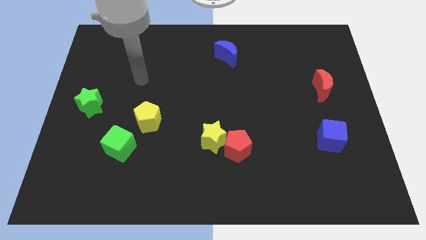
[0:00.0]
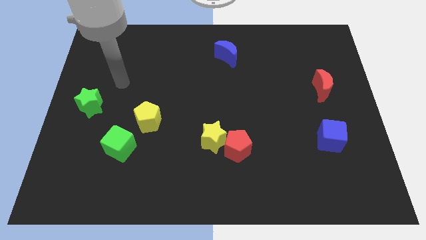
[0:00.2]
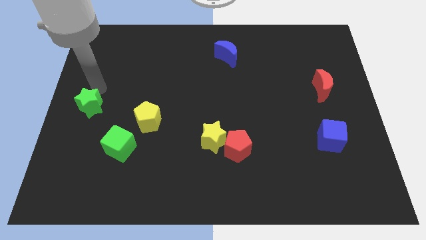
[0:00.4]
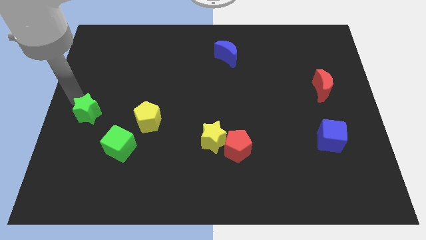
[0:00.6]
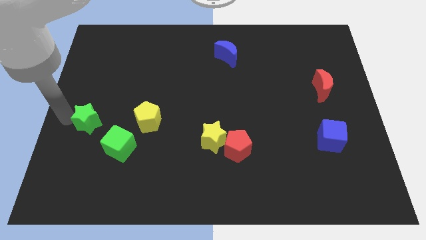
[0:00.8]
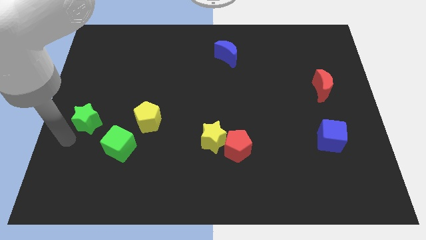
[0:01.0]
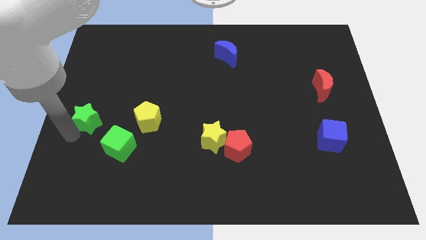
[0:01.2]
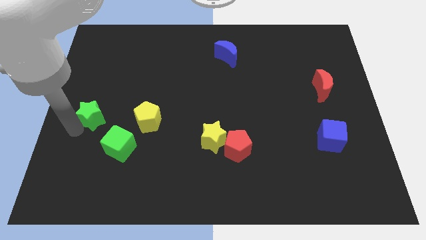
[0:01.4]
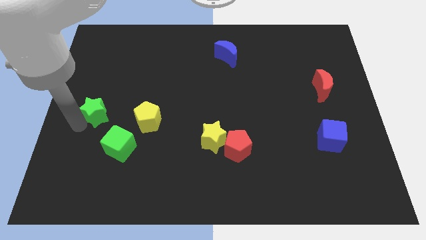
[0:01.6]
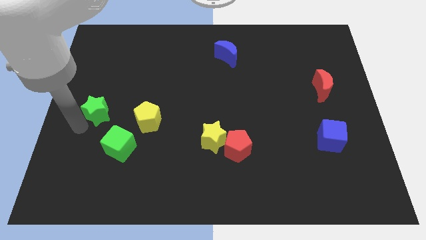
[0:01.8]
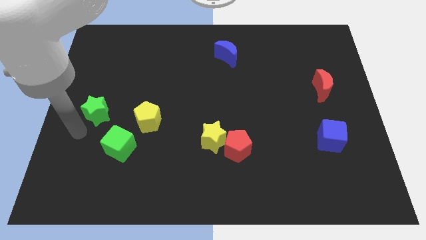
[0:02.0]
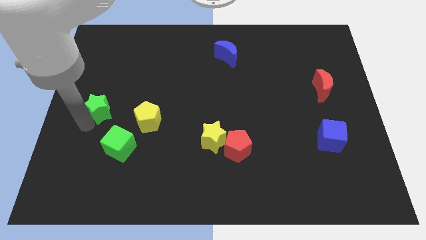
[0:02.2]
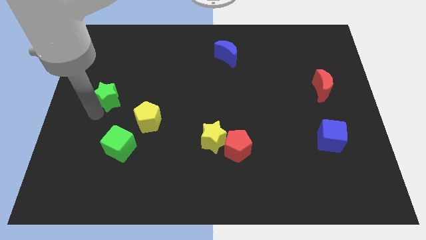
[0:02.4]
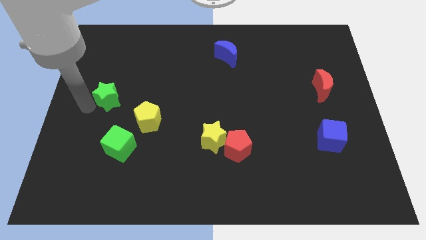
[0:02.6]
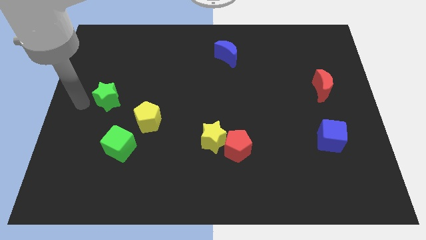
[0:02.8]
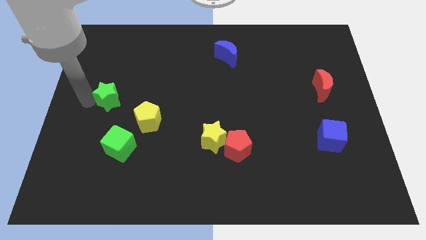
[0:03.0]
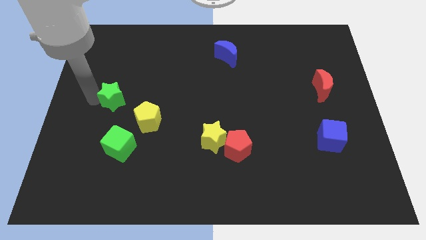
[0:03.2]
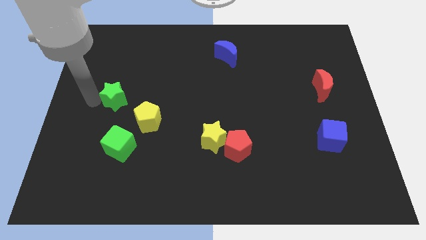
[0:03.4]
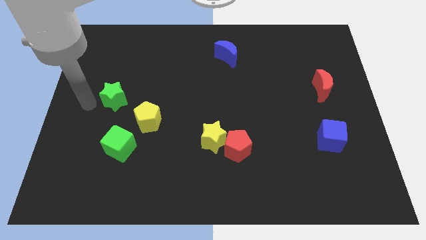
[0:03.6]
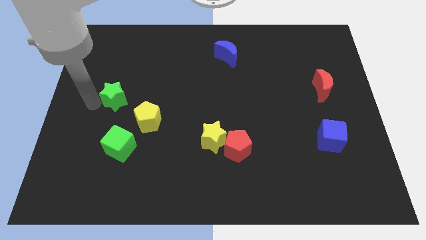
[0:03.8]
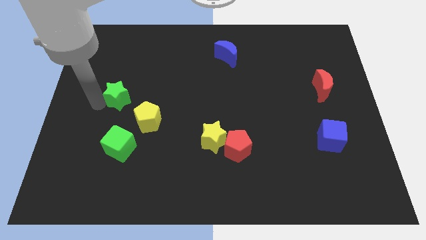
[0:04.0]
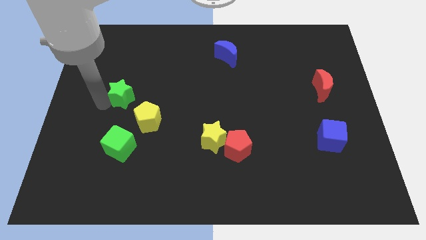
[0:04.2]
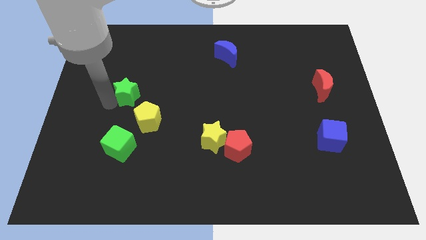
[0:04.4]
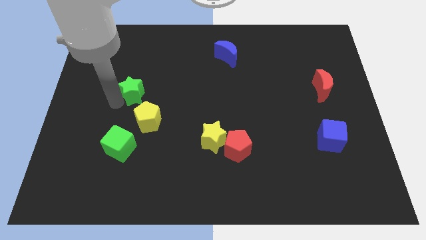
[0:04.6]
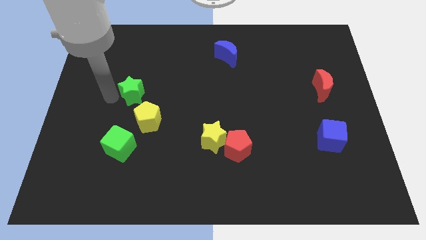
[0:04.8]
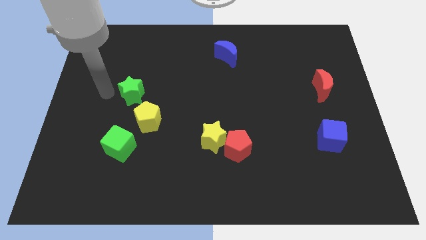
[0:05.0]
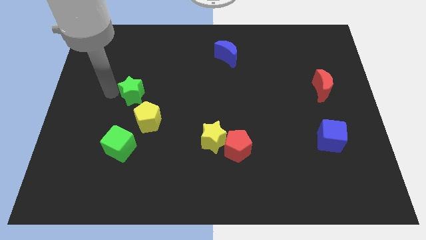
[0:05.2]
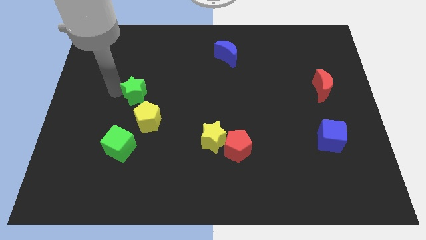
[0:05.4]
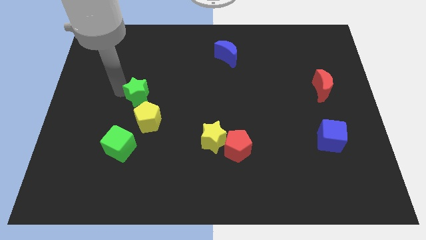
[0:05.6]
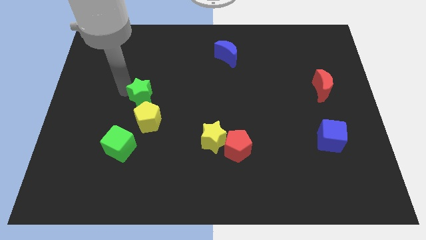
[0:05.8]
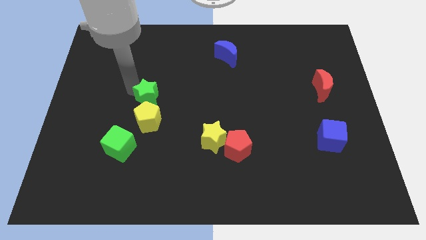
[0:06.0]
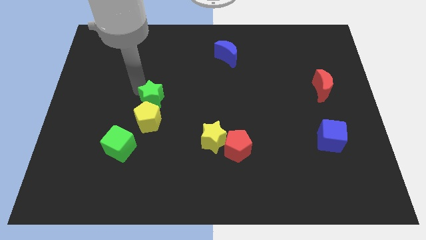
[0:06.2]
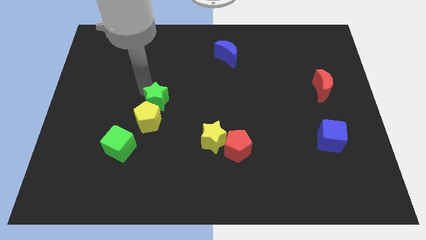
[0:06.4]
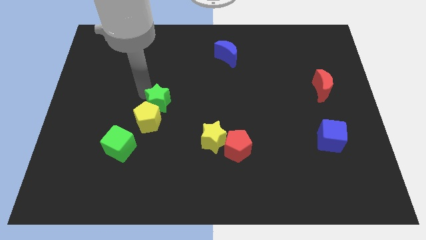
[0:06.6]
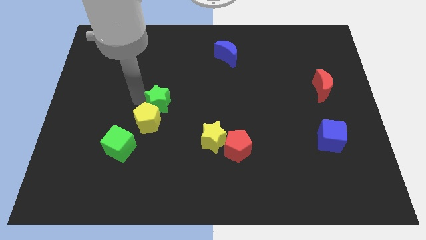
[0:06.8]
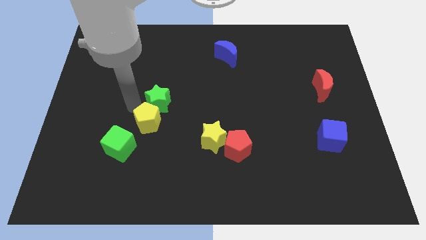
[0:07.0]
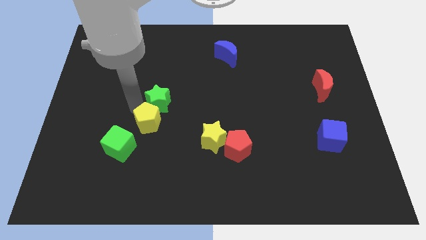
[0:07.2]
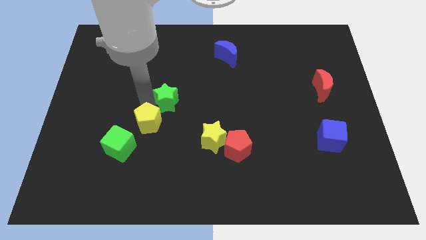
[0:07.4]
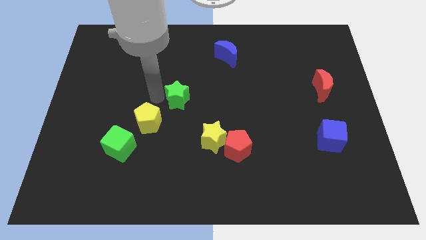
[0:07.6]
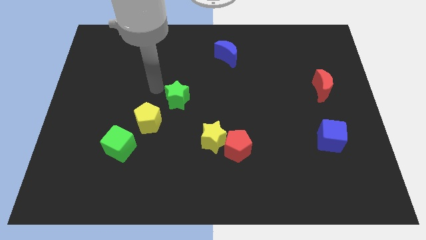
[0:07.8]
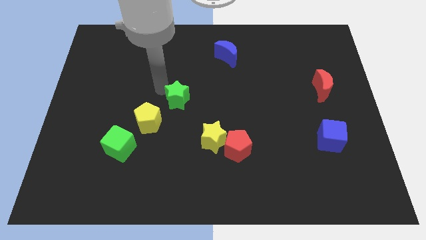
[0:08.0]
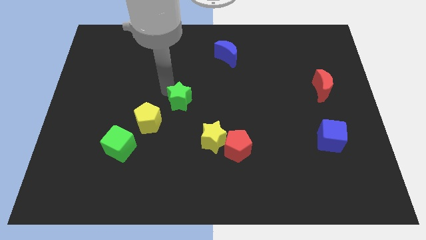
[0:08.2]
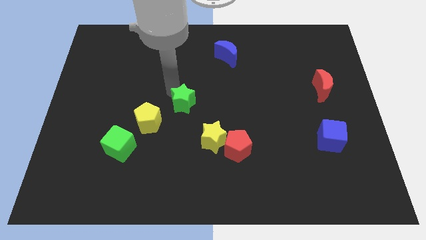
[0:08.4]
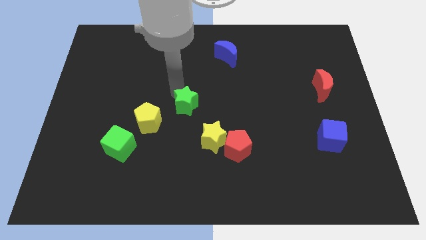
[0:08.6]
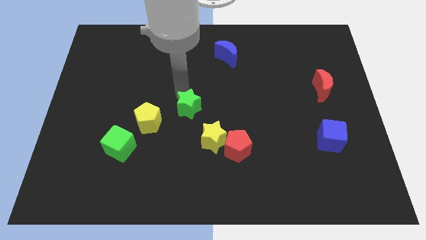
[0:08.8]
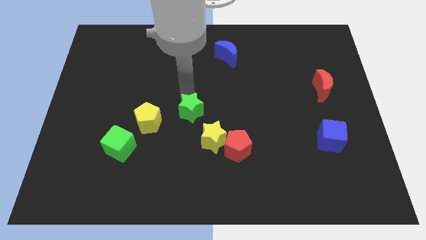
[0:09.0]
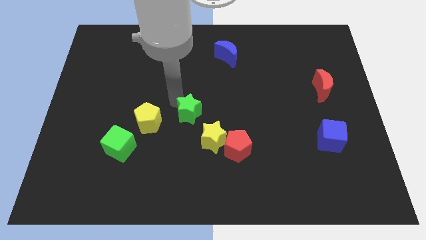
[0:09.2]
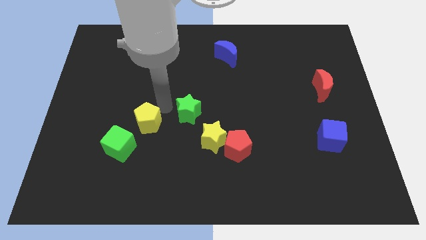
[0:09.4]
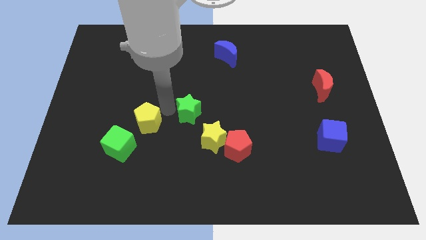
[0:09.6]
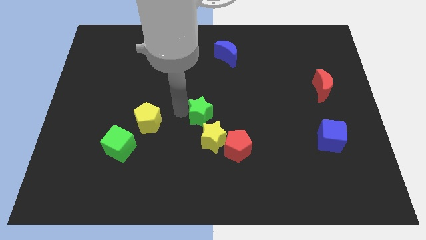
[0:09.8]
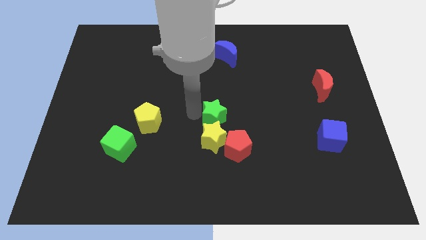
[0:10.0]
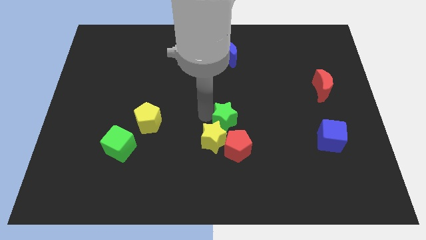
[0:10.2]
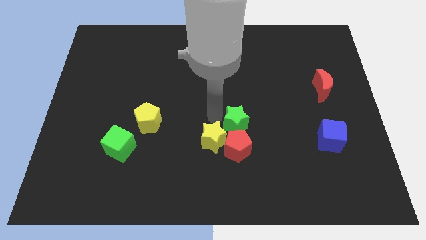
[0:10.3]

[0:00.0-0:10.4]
move the green star to the top right of the red pentagon

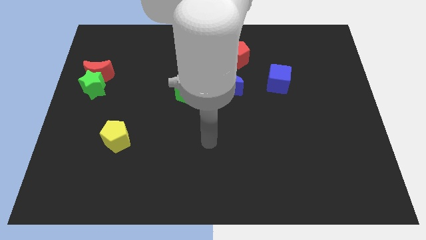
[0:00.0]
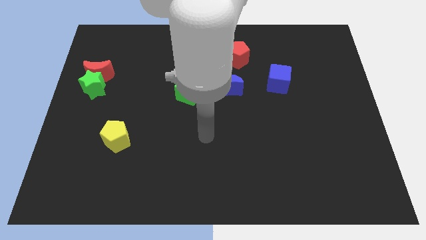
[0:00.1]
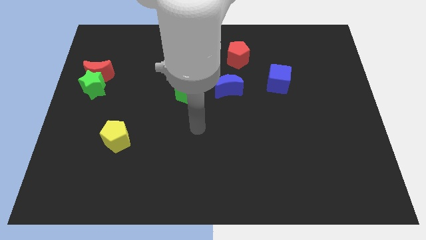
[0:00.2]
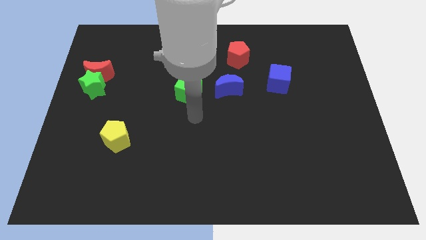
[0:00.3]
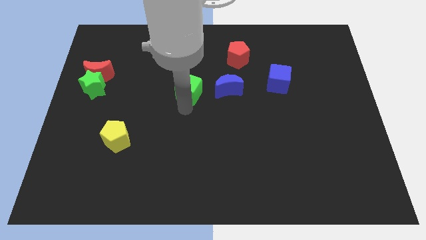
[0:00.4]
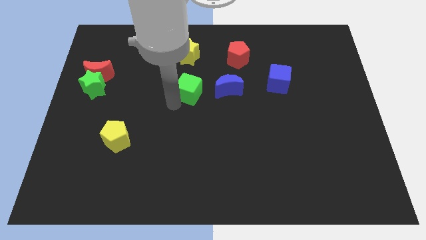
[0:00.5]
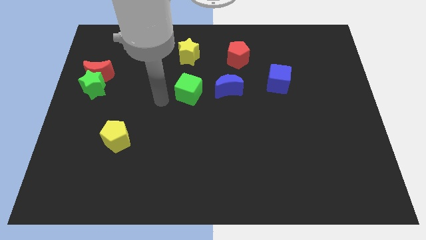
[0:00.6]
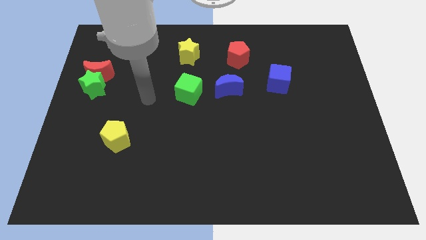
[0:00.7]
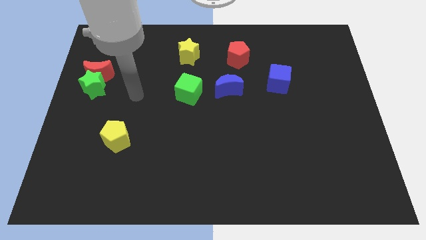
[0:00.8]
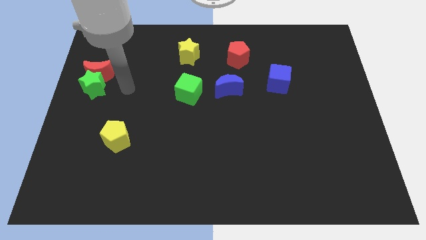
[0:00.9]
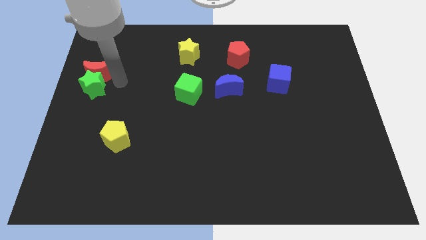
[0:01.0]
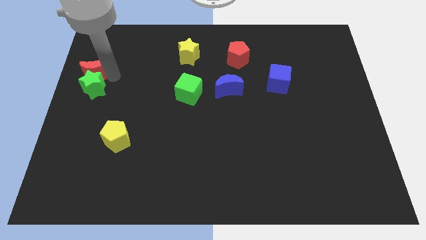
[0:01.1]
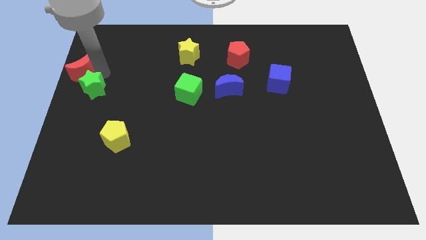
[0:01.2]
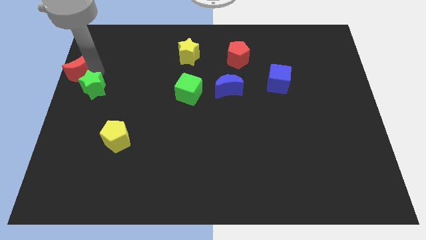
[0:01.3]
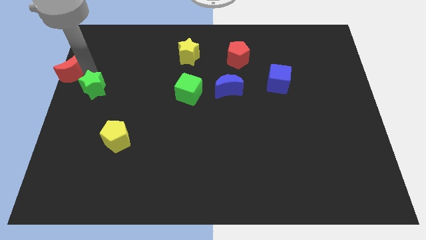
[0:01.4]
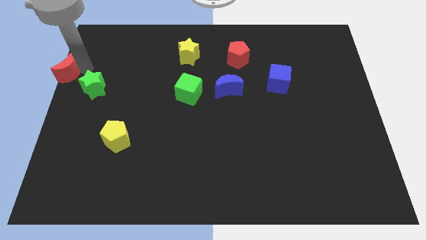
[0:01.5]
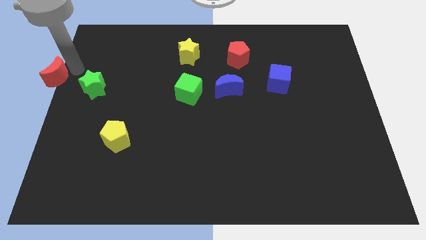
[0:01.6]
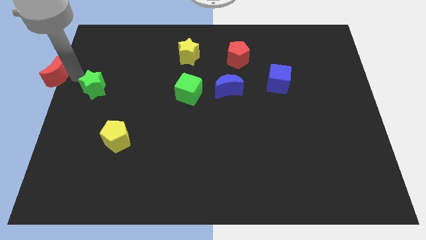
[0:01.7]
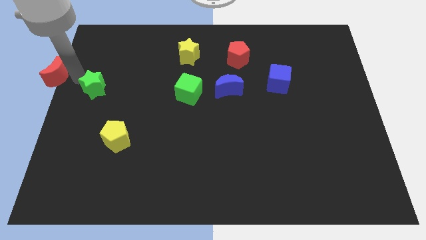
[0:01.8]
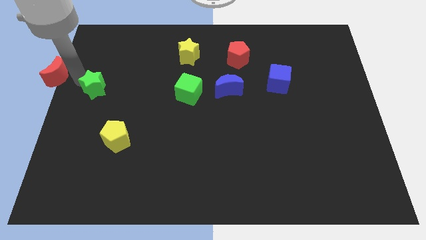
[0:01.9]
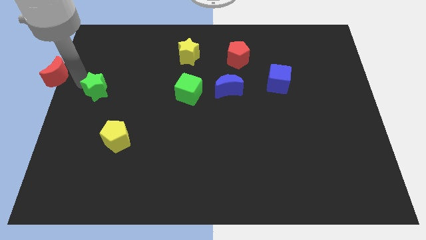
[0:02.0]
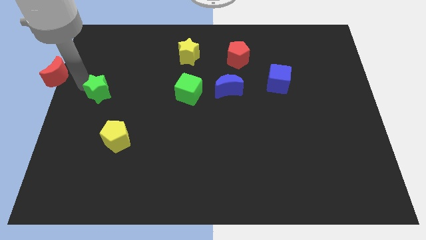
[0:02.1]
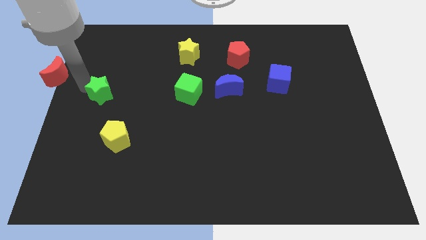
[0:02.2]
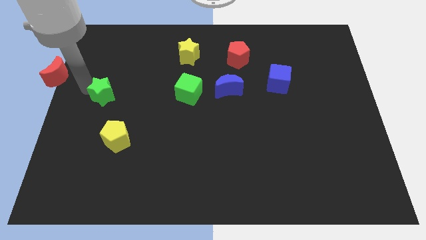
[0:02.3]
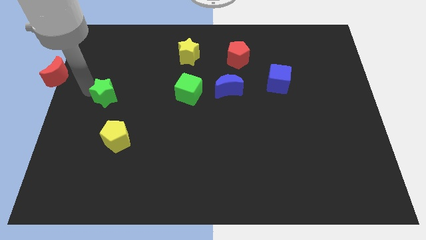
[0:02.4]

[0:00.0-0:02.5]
move the green star above the yellow pentagon

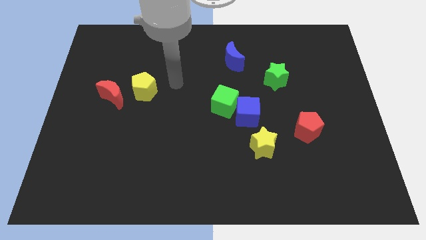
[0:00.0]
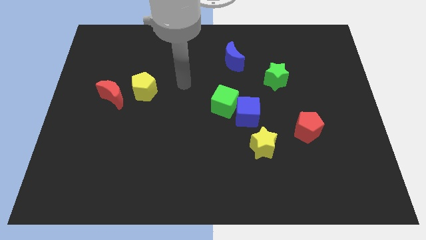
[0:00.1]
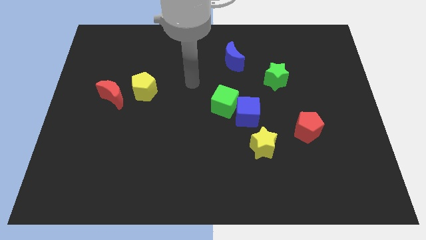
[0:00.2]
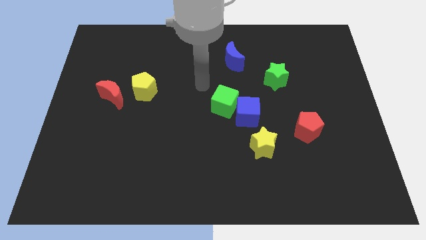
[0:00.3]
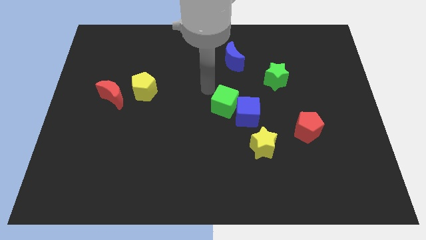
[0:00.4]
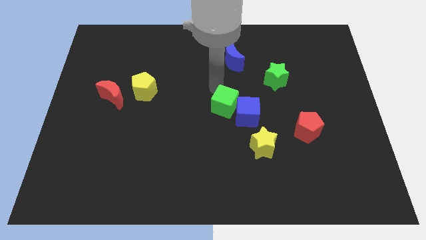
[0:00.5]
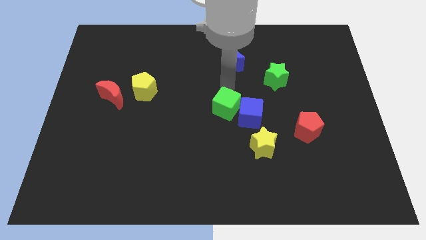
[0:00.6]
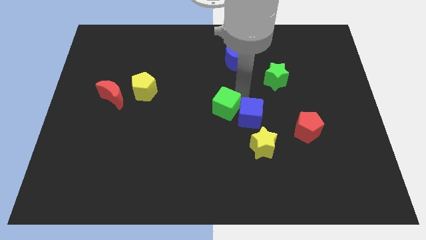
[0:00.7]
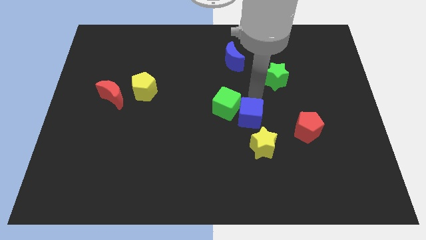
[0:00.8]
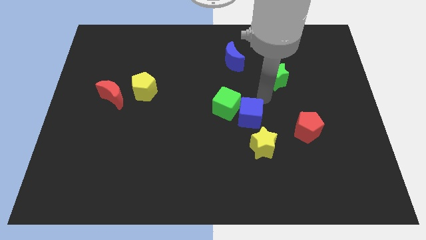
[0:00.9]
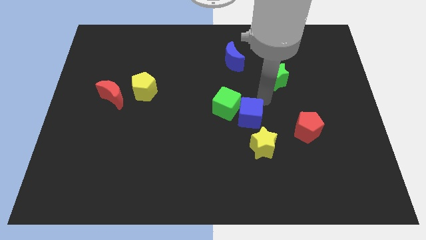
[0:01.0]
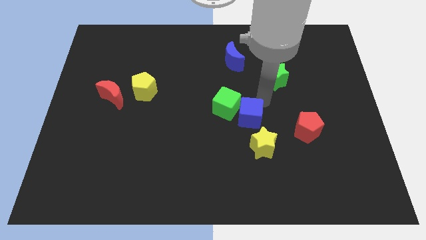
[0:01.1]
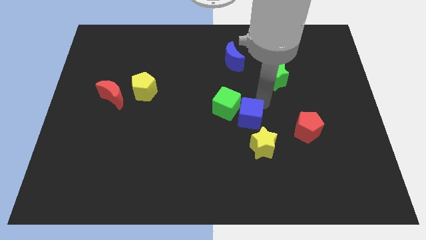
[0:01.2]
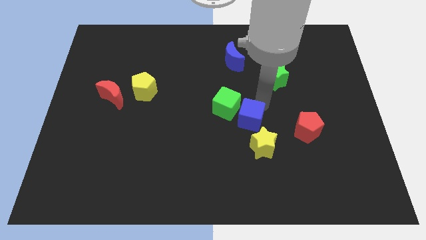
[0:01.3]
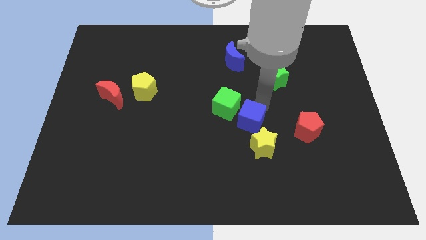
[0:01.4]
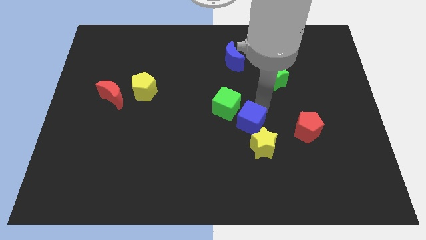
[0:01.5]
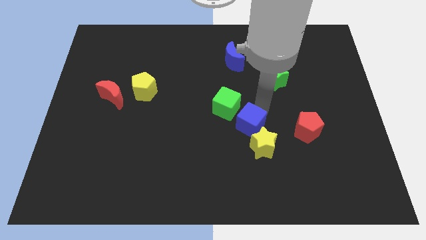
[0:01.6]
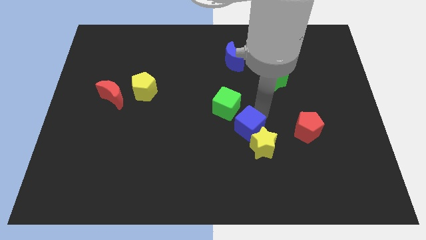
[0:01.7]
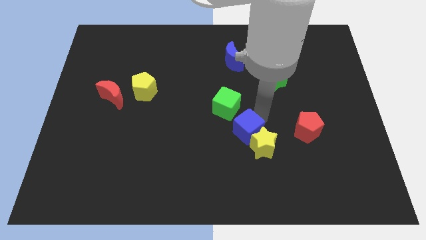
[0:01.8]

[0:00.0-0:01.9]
slide the blue cube to the left of the yellow star
